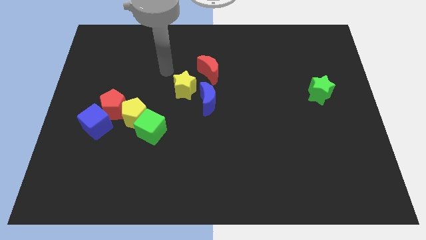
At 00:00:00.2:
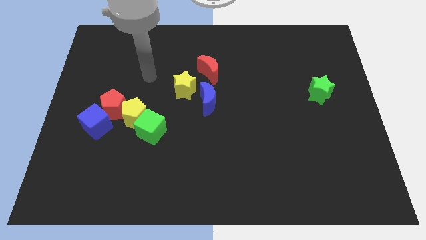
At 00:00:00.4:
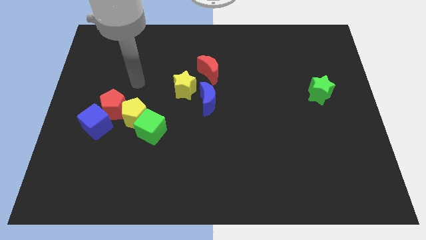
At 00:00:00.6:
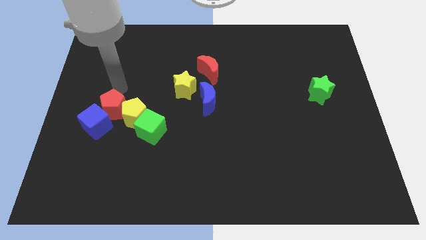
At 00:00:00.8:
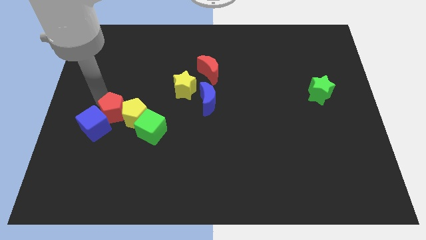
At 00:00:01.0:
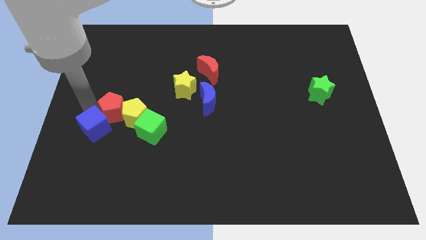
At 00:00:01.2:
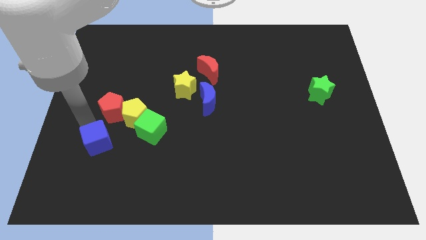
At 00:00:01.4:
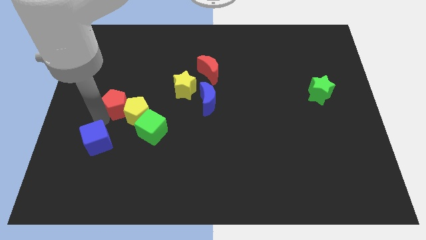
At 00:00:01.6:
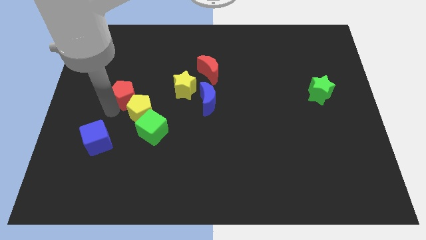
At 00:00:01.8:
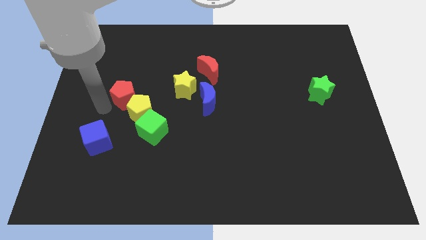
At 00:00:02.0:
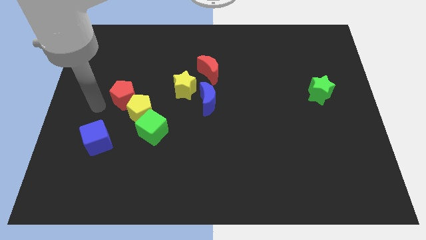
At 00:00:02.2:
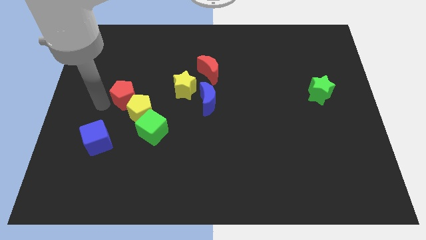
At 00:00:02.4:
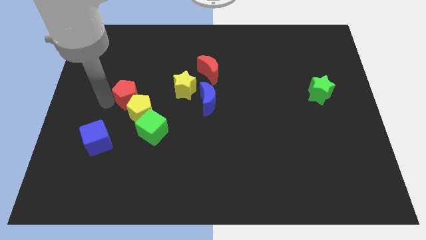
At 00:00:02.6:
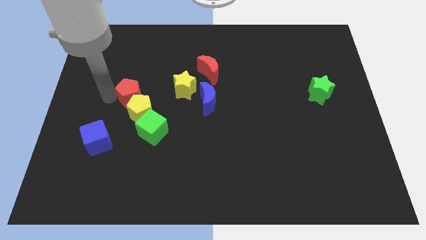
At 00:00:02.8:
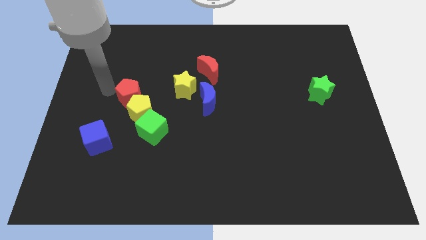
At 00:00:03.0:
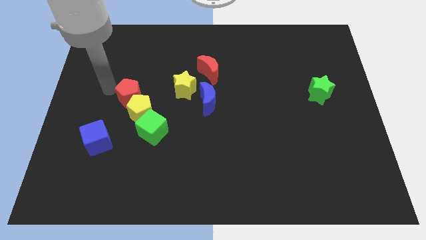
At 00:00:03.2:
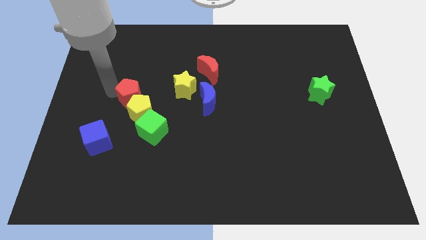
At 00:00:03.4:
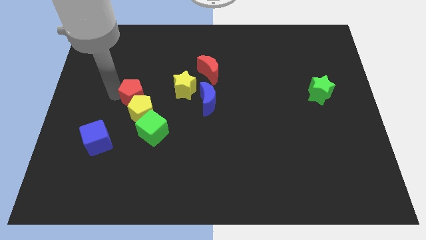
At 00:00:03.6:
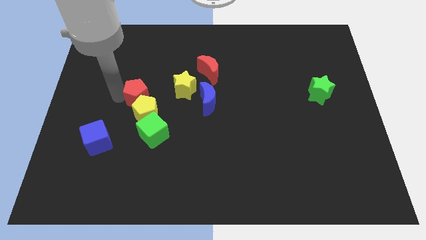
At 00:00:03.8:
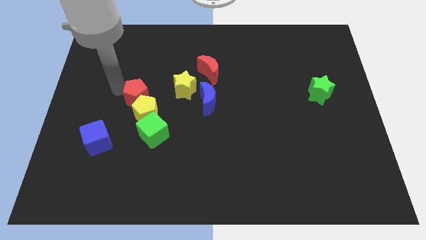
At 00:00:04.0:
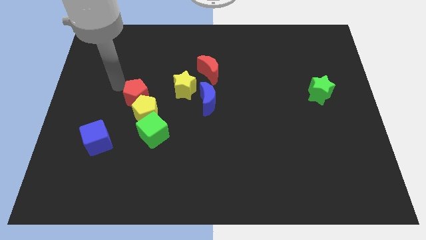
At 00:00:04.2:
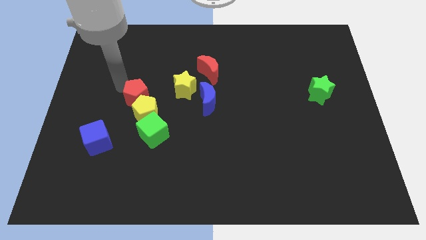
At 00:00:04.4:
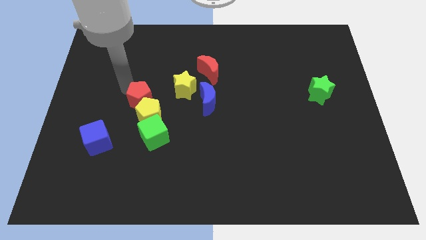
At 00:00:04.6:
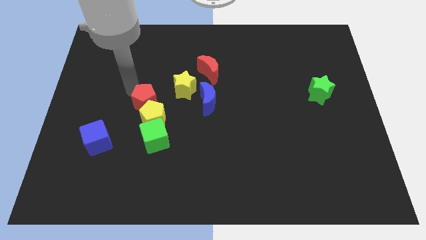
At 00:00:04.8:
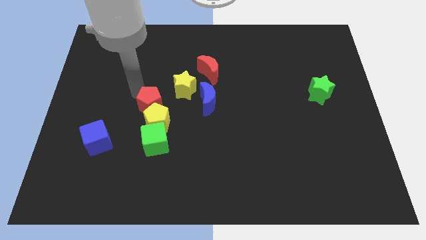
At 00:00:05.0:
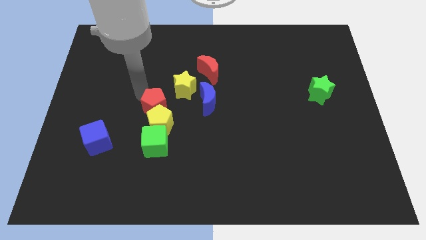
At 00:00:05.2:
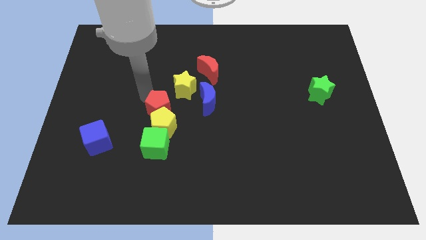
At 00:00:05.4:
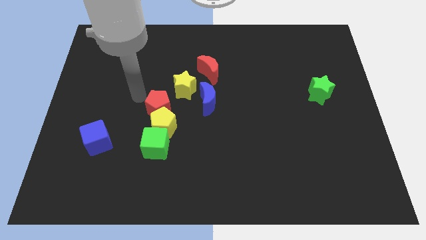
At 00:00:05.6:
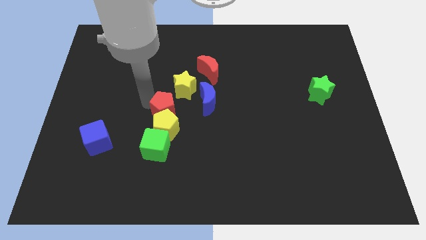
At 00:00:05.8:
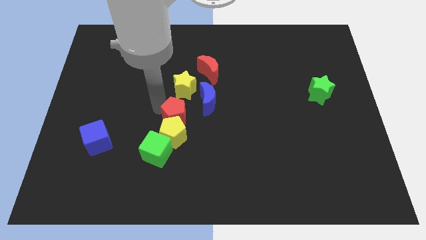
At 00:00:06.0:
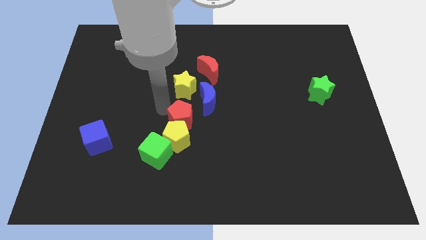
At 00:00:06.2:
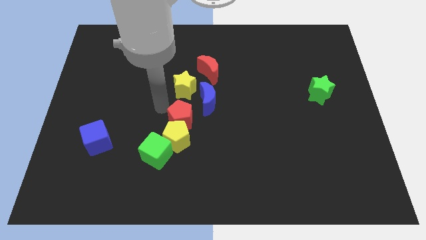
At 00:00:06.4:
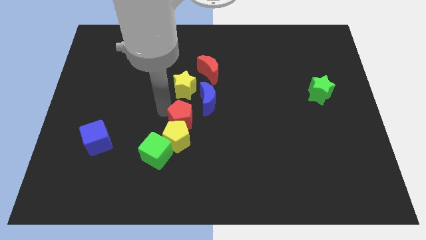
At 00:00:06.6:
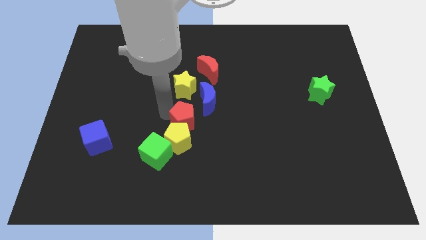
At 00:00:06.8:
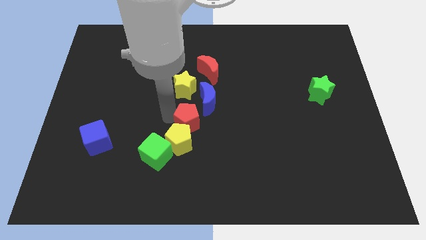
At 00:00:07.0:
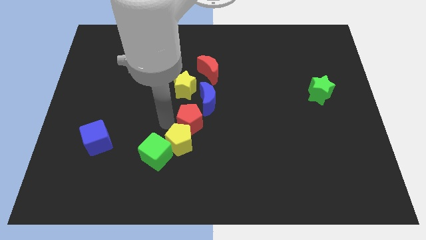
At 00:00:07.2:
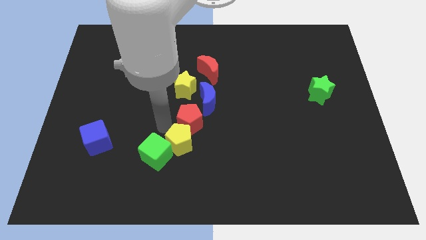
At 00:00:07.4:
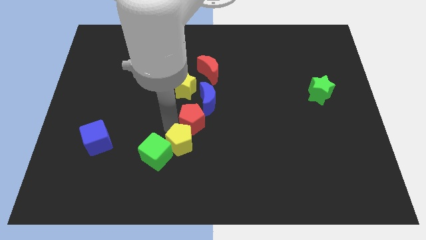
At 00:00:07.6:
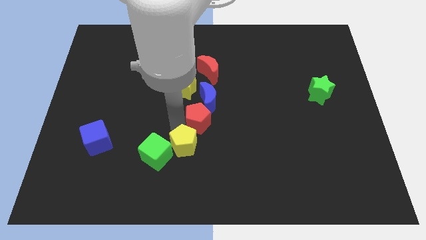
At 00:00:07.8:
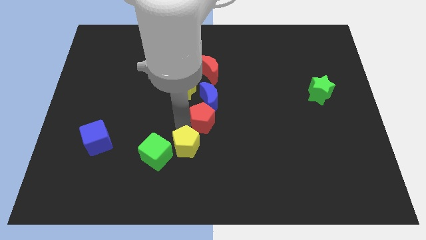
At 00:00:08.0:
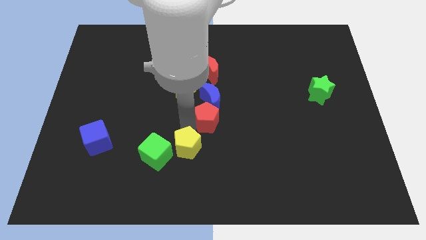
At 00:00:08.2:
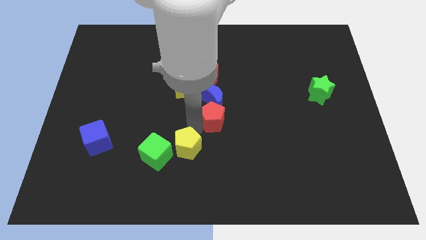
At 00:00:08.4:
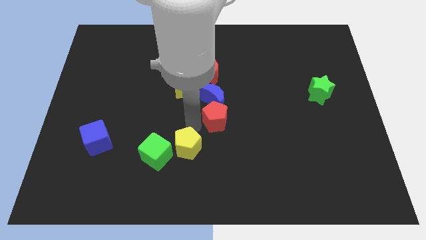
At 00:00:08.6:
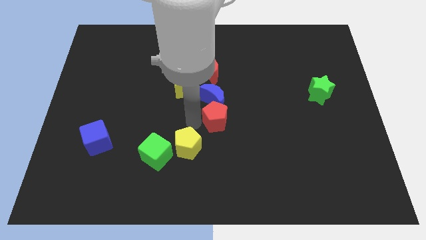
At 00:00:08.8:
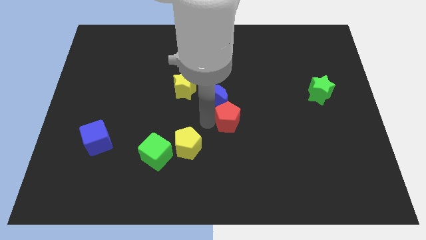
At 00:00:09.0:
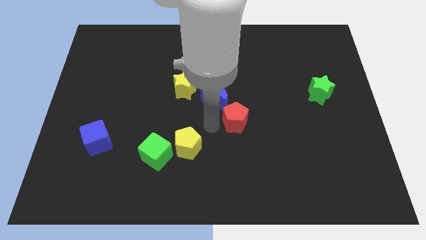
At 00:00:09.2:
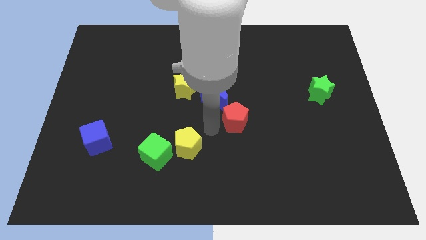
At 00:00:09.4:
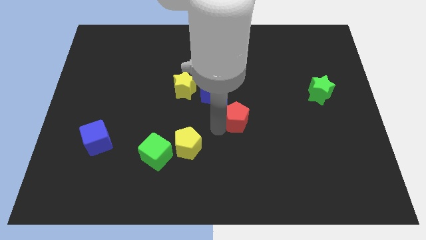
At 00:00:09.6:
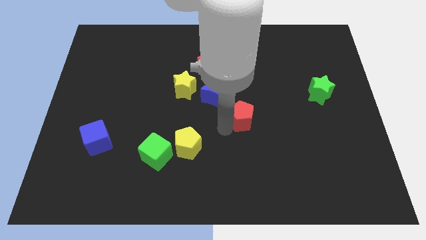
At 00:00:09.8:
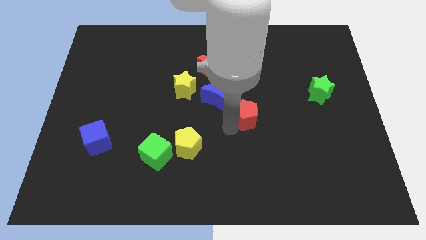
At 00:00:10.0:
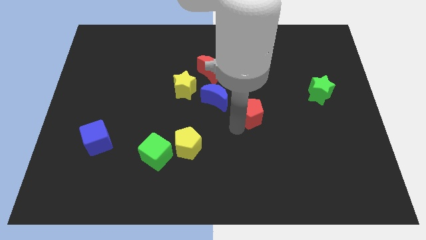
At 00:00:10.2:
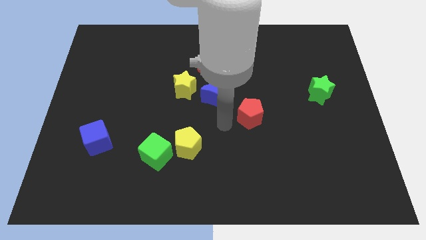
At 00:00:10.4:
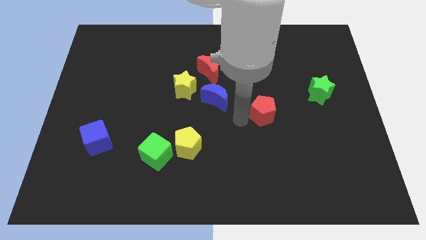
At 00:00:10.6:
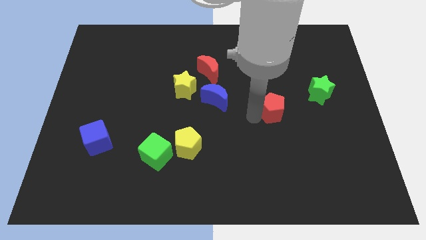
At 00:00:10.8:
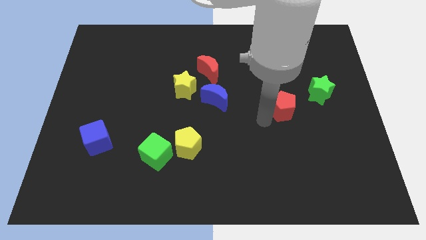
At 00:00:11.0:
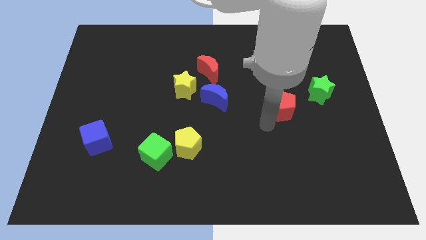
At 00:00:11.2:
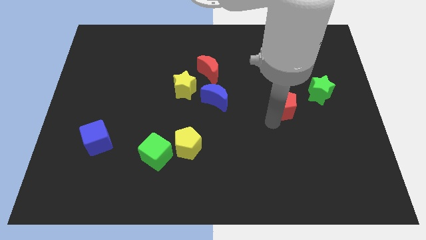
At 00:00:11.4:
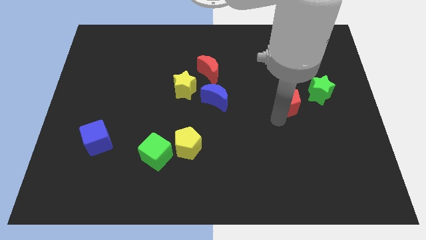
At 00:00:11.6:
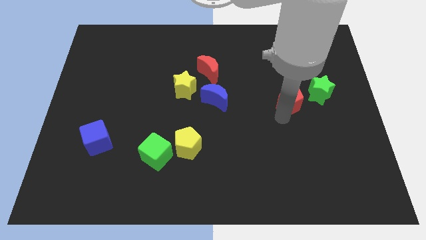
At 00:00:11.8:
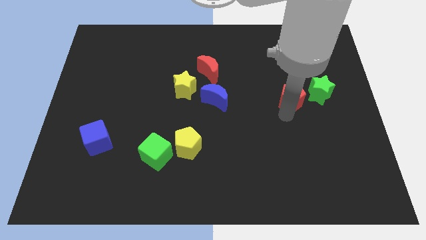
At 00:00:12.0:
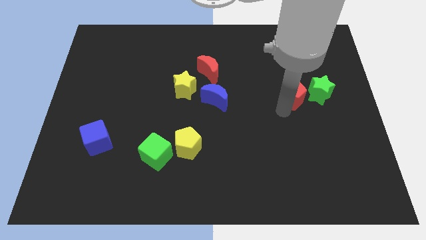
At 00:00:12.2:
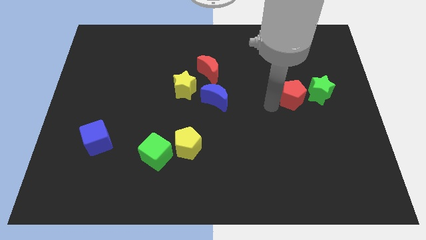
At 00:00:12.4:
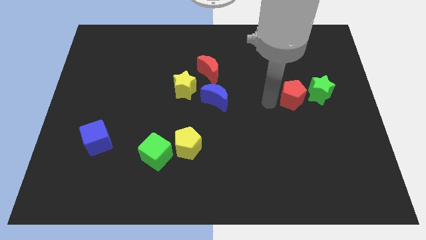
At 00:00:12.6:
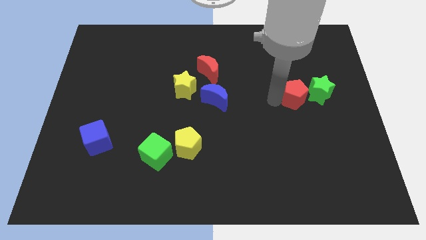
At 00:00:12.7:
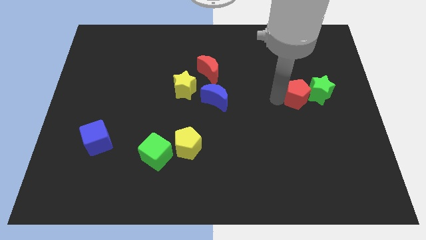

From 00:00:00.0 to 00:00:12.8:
put the red pentagon to the green star
